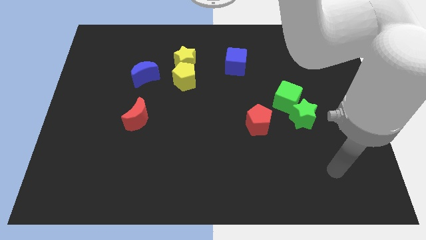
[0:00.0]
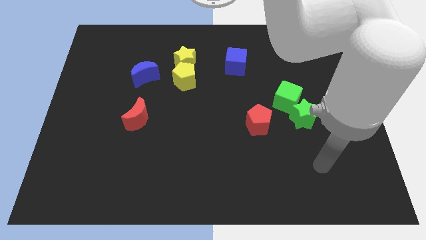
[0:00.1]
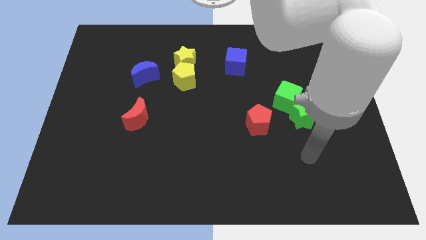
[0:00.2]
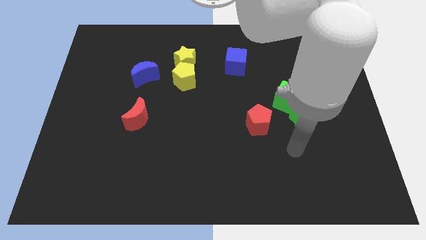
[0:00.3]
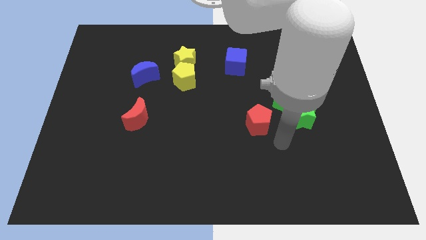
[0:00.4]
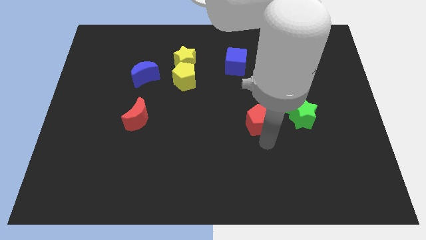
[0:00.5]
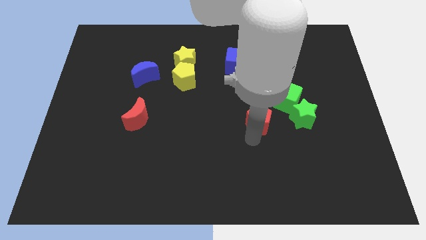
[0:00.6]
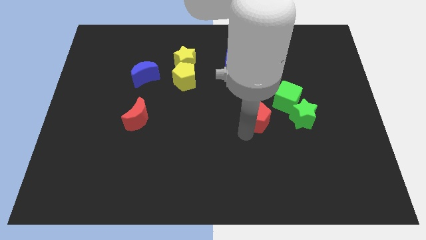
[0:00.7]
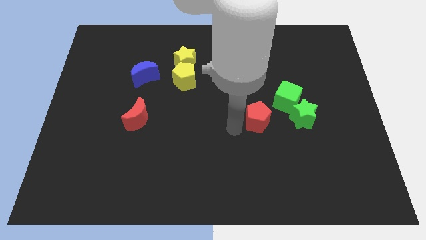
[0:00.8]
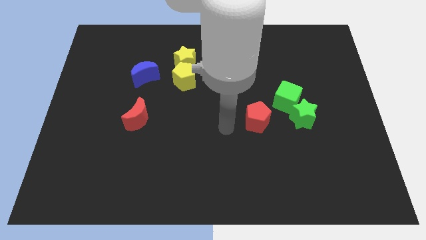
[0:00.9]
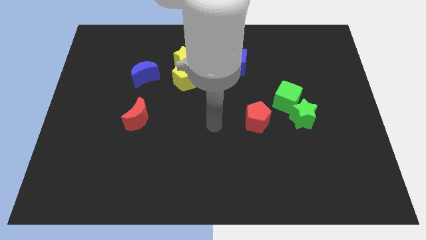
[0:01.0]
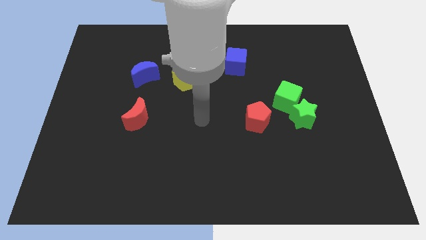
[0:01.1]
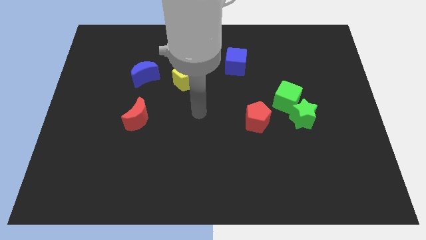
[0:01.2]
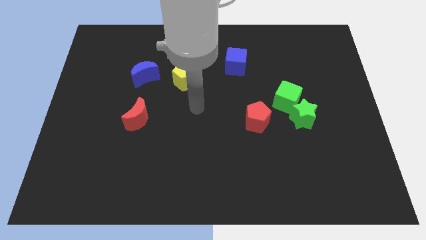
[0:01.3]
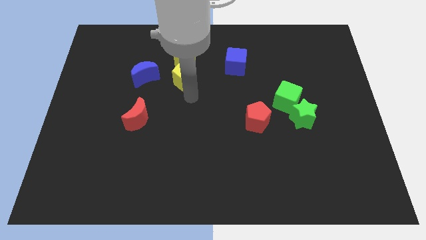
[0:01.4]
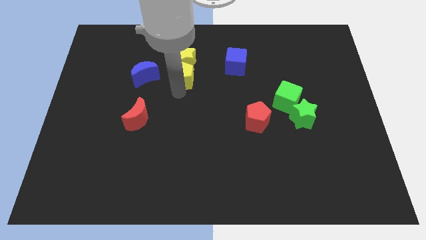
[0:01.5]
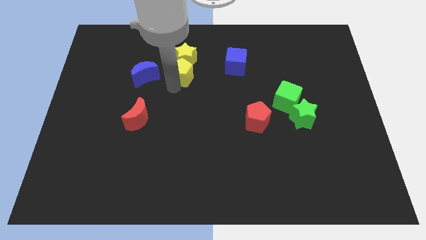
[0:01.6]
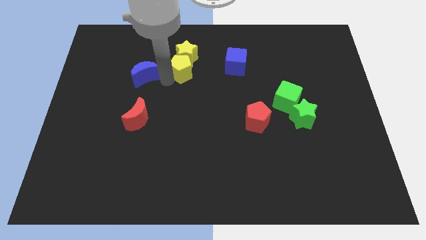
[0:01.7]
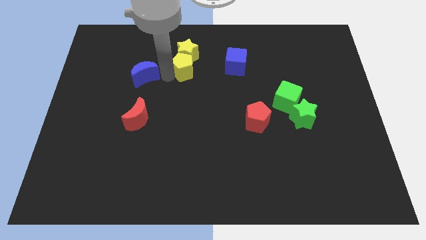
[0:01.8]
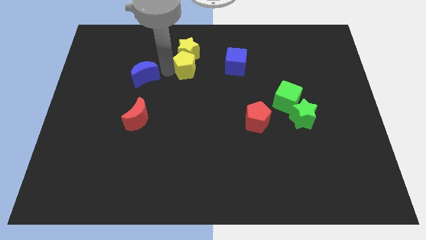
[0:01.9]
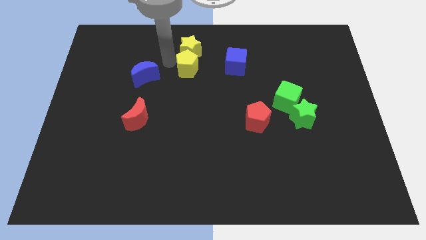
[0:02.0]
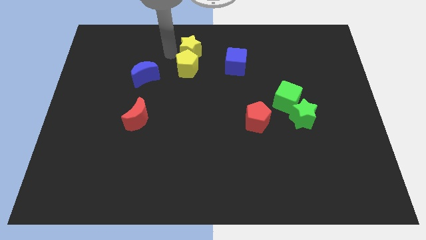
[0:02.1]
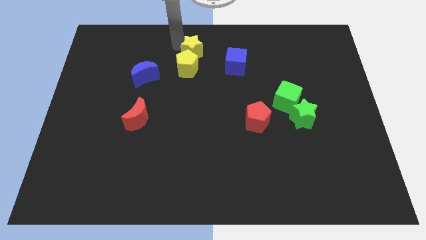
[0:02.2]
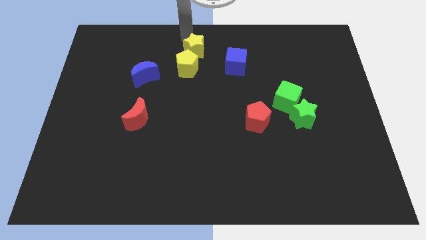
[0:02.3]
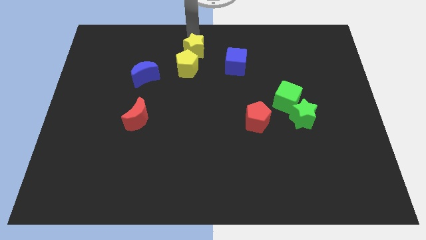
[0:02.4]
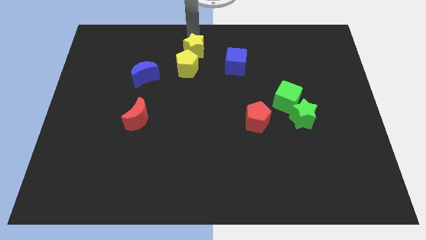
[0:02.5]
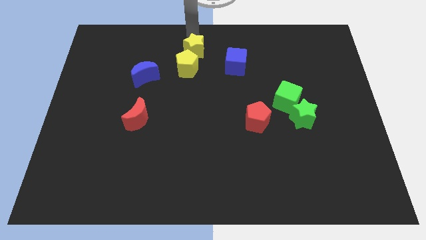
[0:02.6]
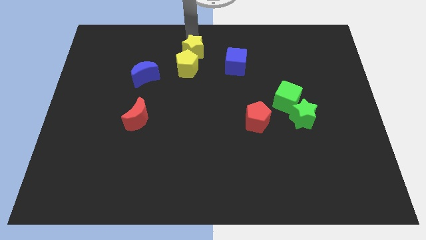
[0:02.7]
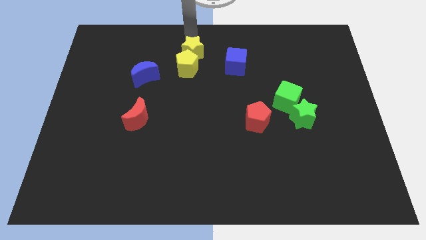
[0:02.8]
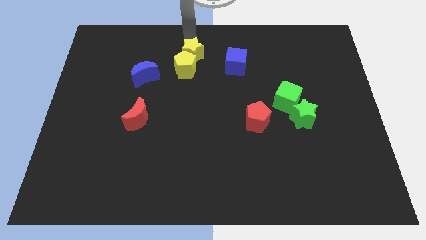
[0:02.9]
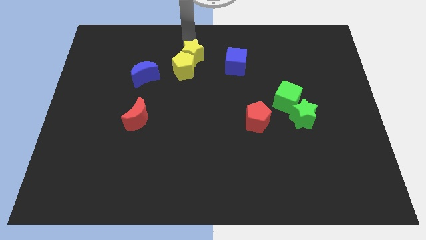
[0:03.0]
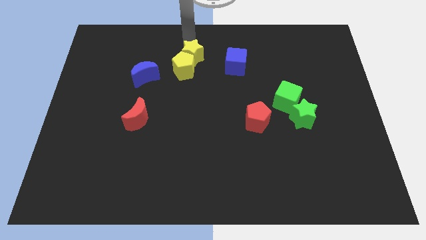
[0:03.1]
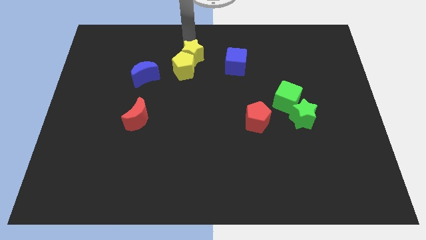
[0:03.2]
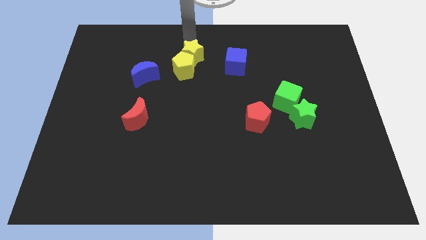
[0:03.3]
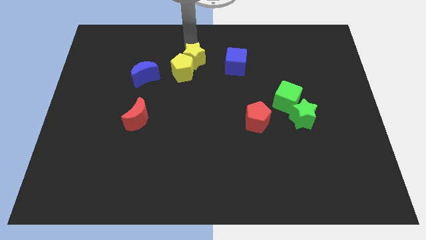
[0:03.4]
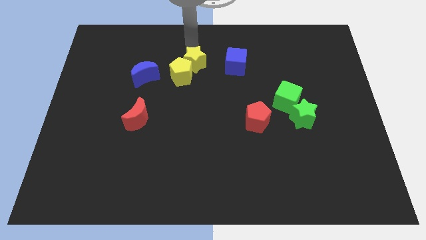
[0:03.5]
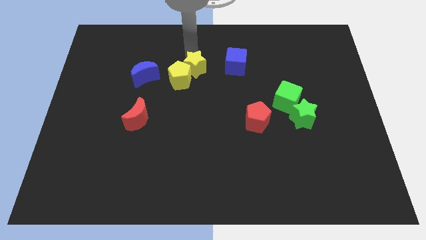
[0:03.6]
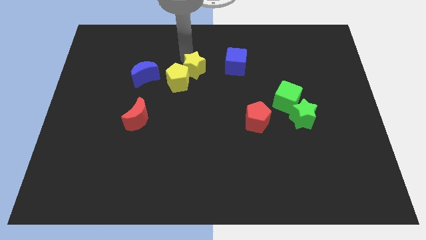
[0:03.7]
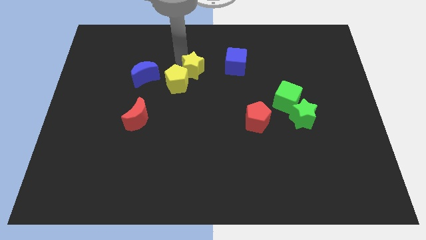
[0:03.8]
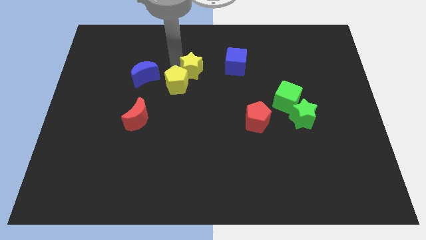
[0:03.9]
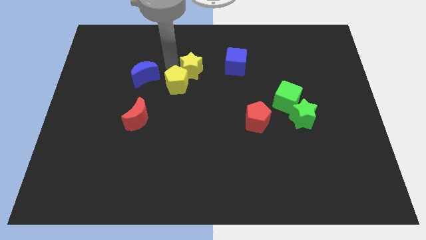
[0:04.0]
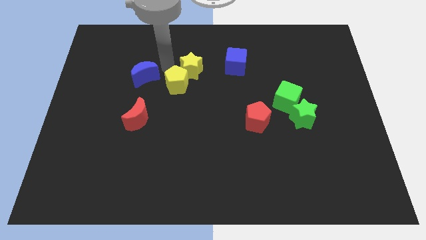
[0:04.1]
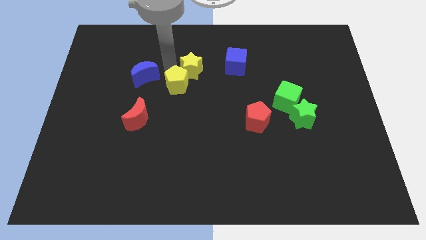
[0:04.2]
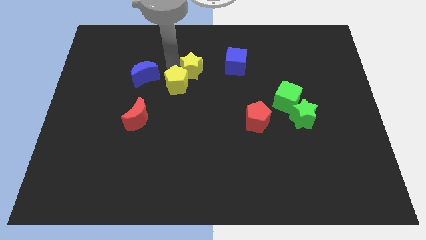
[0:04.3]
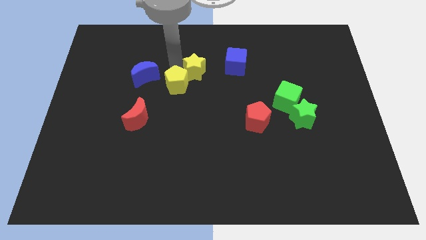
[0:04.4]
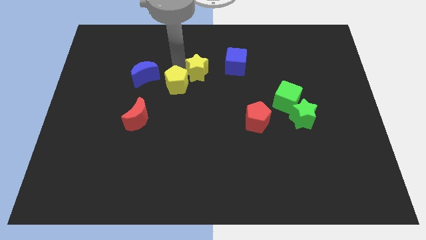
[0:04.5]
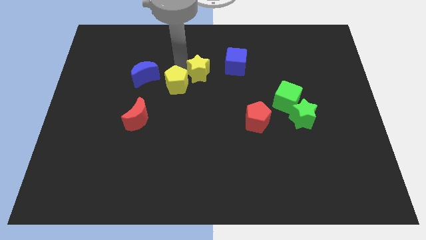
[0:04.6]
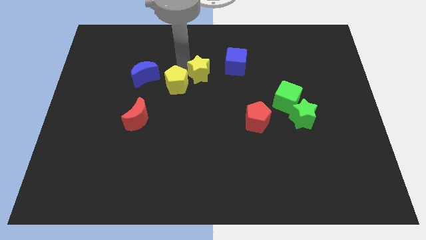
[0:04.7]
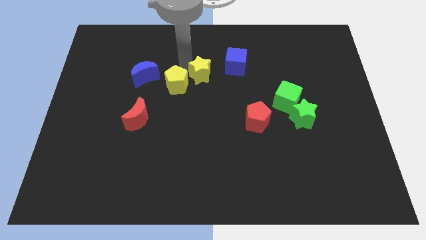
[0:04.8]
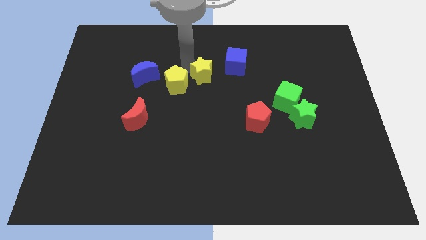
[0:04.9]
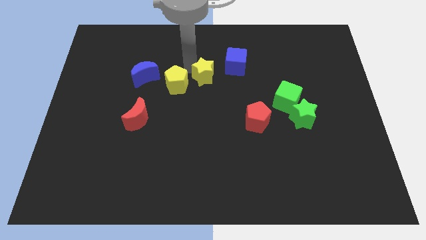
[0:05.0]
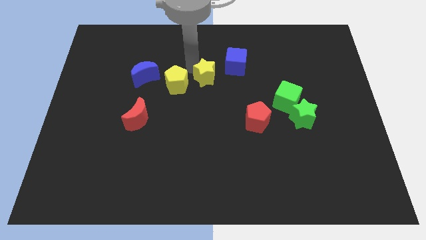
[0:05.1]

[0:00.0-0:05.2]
slide the yellow star downwards and then right a little bit

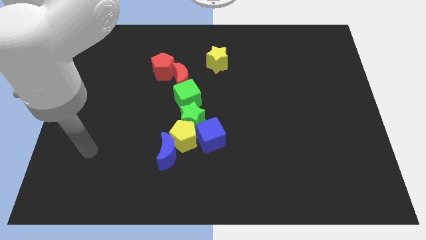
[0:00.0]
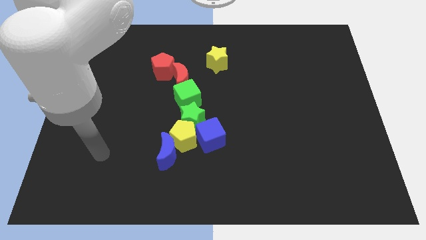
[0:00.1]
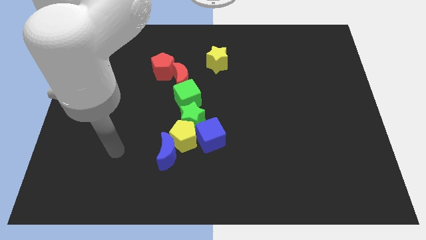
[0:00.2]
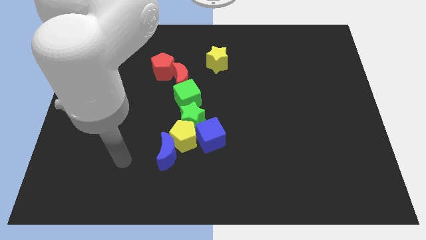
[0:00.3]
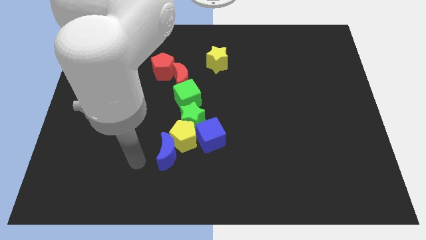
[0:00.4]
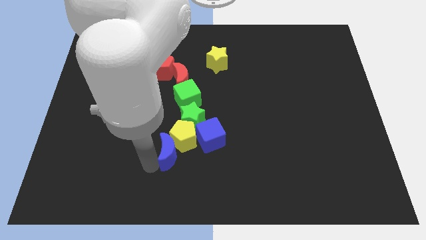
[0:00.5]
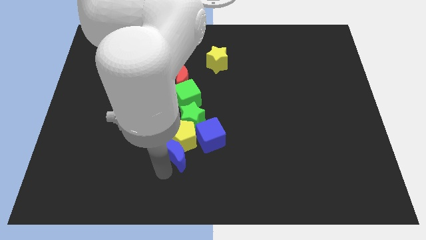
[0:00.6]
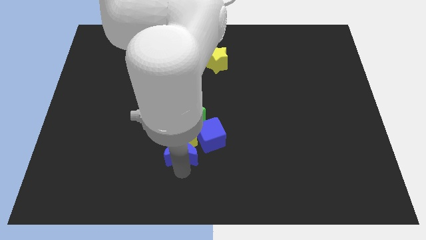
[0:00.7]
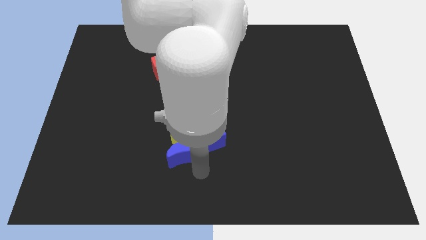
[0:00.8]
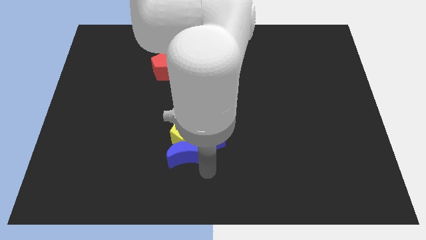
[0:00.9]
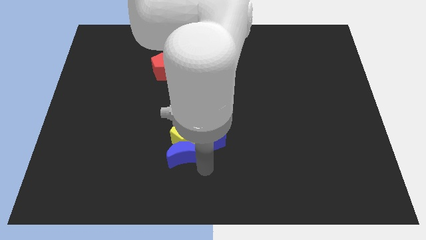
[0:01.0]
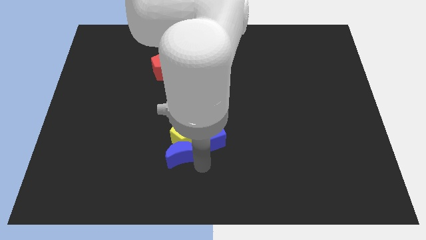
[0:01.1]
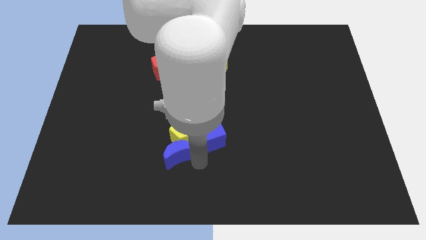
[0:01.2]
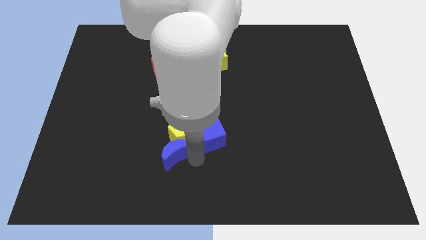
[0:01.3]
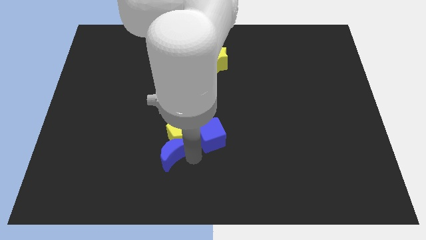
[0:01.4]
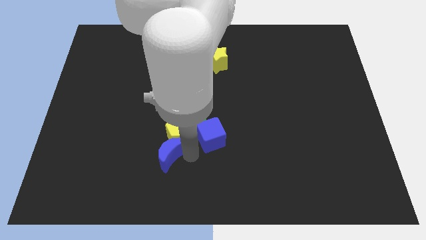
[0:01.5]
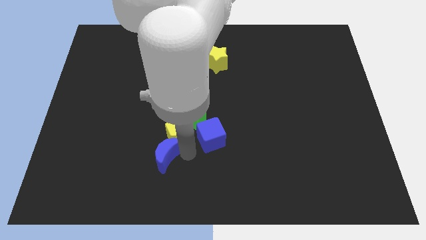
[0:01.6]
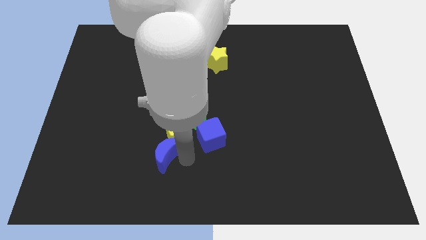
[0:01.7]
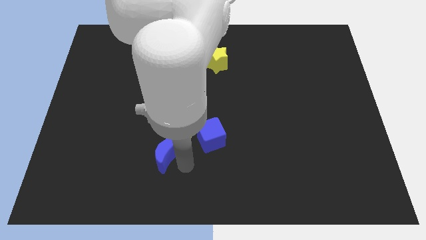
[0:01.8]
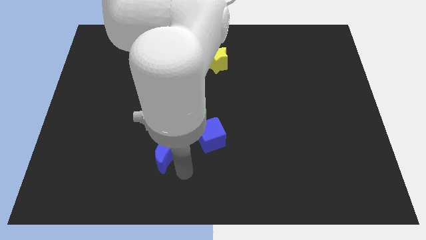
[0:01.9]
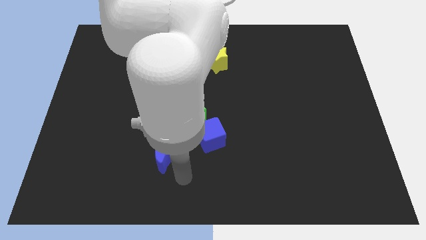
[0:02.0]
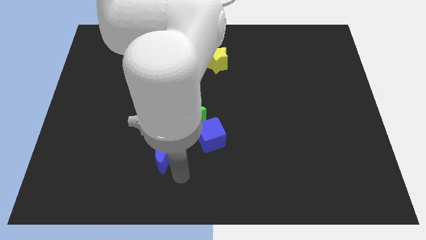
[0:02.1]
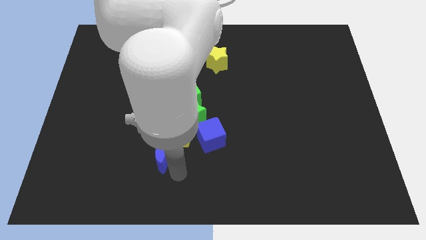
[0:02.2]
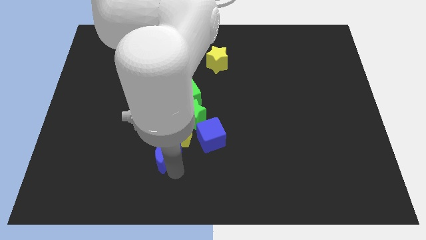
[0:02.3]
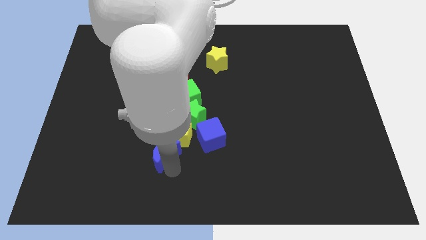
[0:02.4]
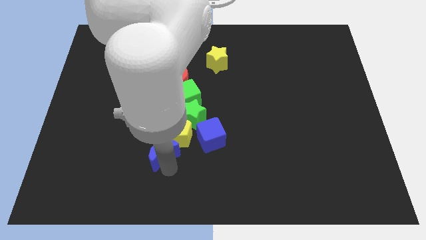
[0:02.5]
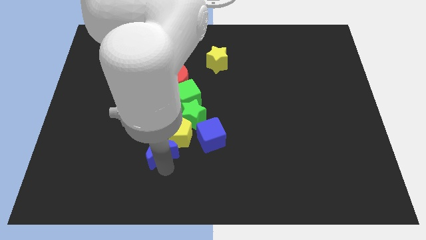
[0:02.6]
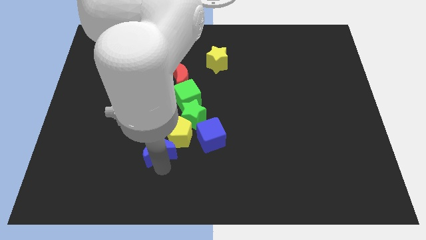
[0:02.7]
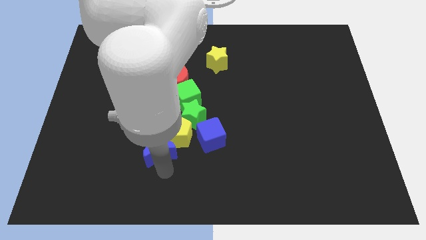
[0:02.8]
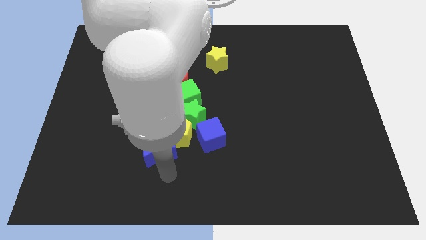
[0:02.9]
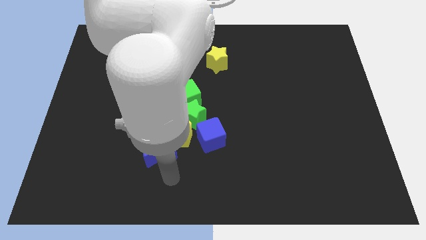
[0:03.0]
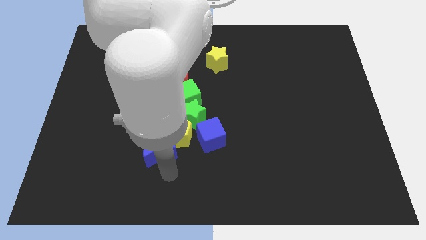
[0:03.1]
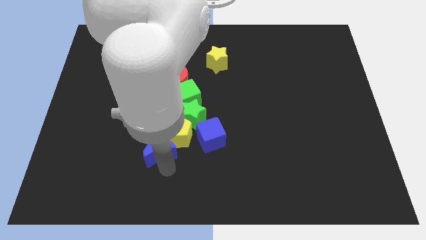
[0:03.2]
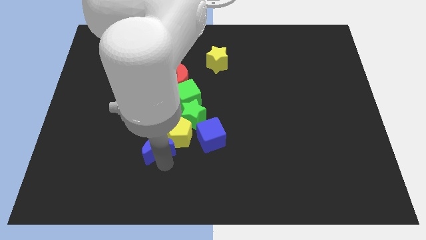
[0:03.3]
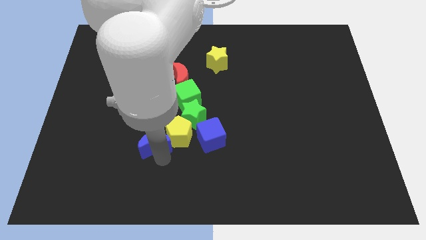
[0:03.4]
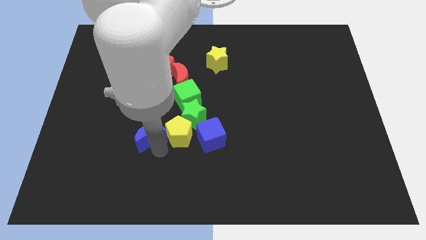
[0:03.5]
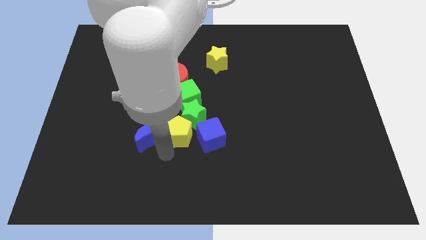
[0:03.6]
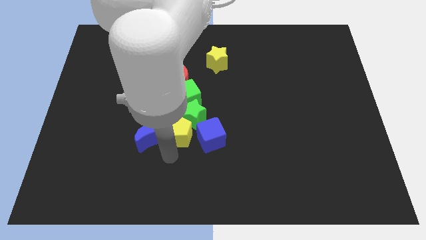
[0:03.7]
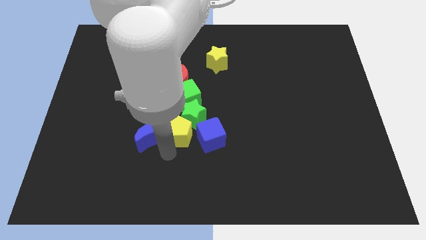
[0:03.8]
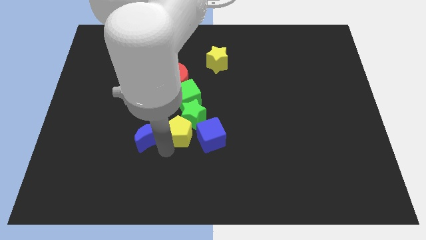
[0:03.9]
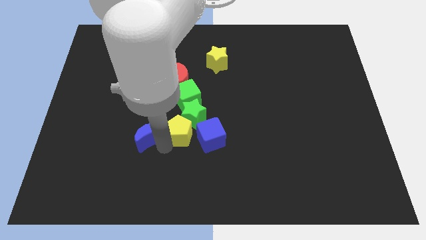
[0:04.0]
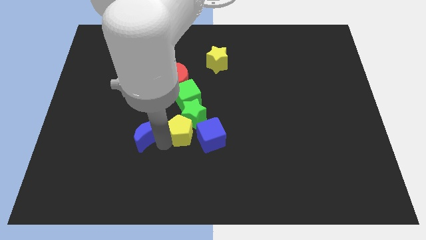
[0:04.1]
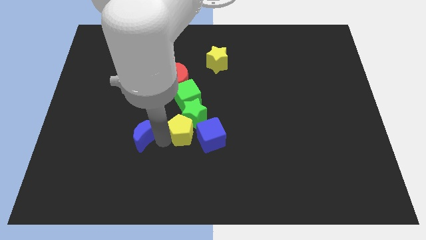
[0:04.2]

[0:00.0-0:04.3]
slide the blue moon upwards and left diagonally a bit
